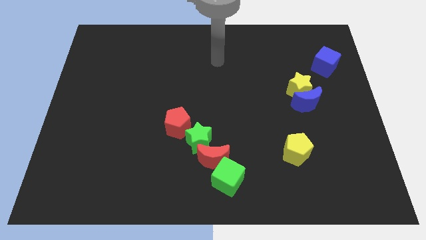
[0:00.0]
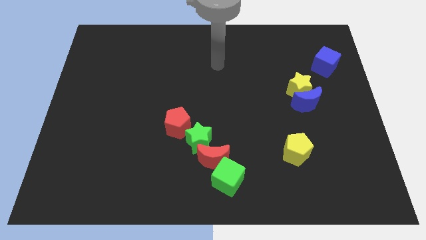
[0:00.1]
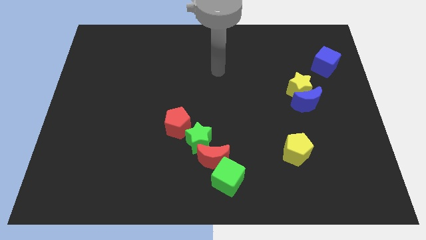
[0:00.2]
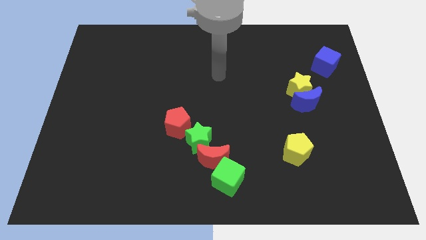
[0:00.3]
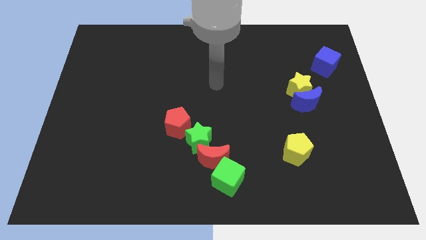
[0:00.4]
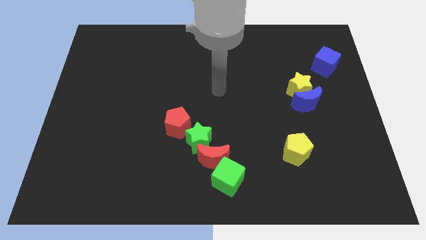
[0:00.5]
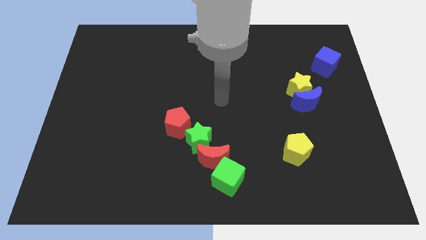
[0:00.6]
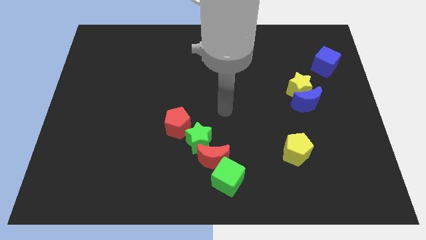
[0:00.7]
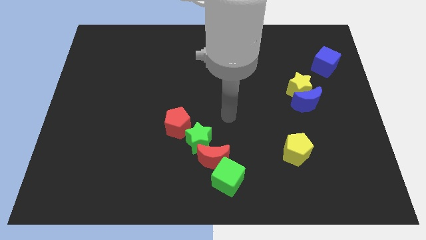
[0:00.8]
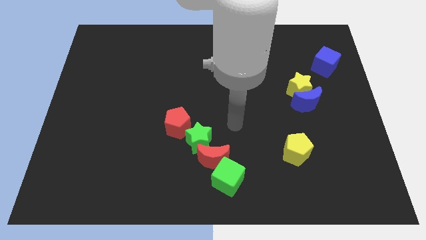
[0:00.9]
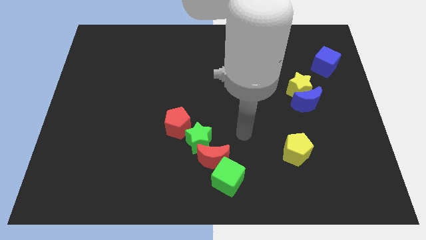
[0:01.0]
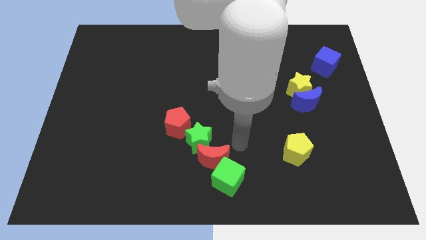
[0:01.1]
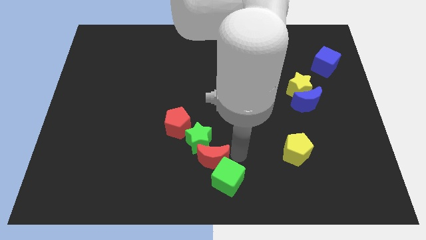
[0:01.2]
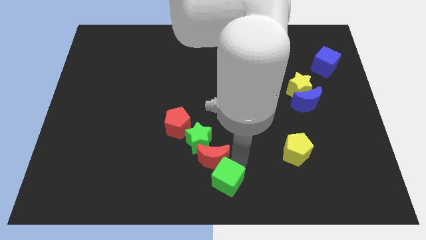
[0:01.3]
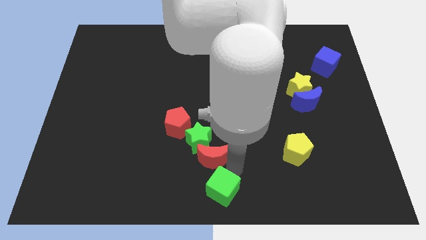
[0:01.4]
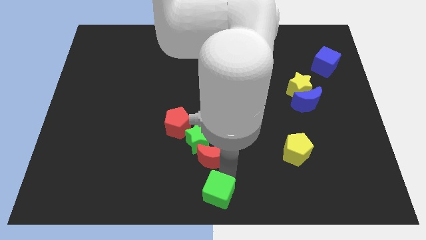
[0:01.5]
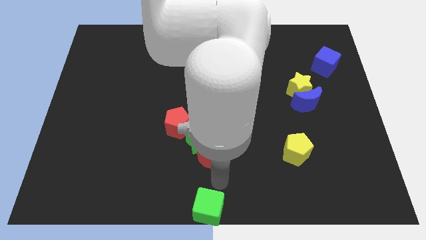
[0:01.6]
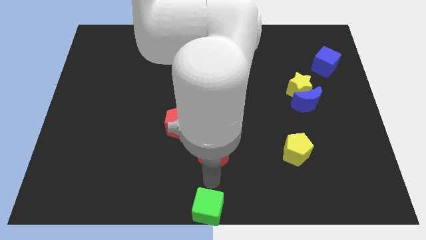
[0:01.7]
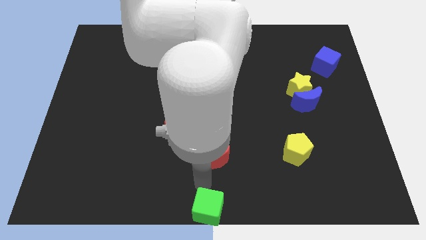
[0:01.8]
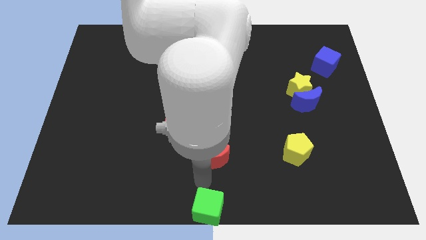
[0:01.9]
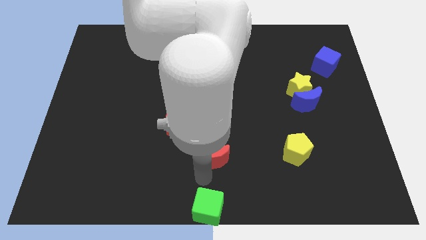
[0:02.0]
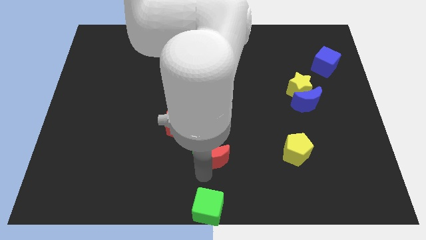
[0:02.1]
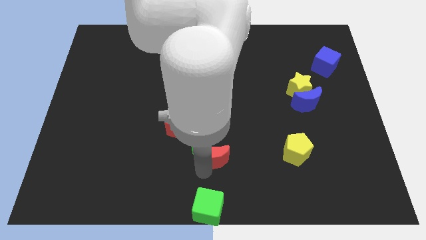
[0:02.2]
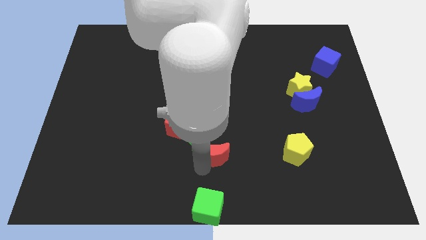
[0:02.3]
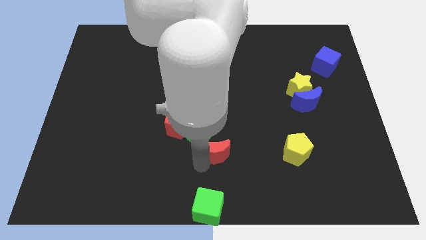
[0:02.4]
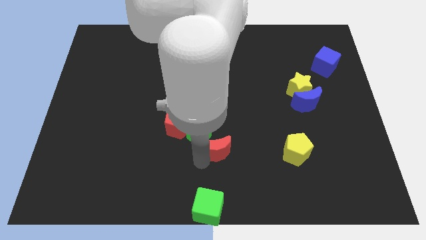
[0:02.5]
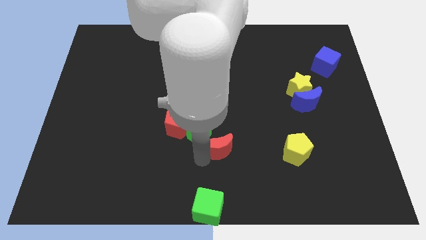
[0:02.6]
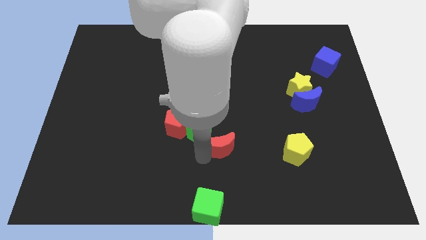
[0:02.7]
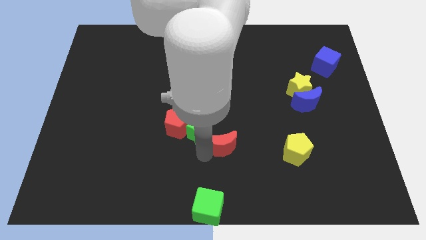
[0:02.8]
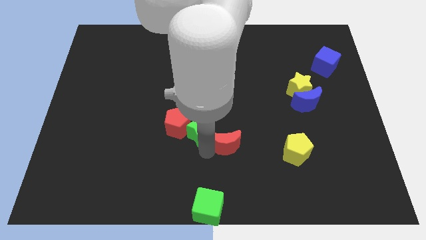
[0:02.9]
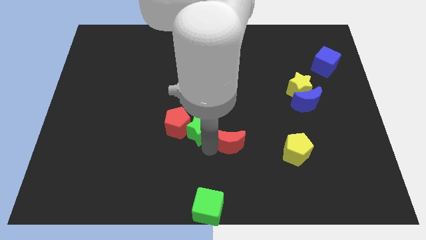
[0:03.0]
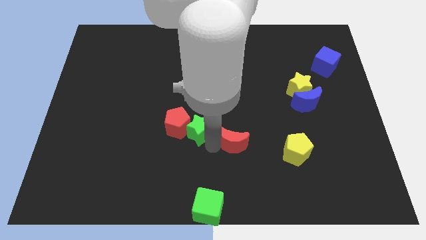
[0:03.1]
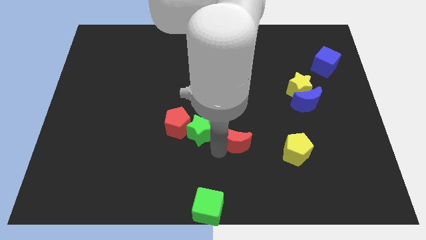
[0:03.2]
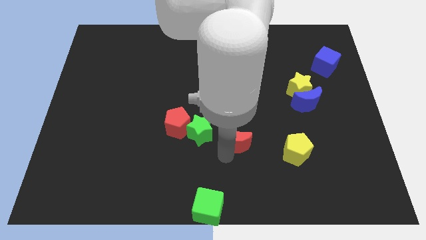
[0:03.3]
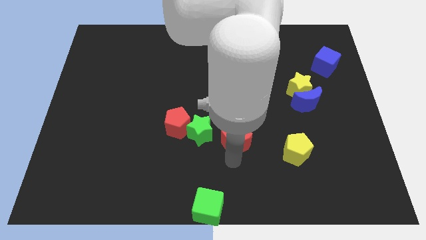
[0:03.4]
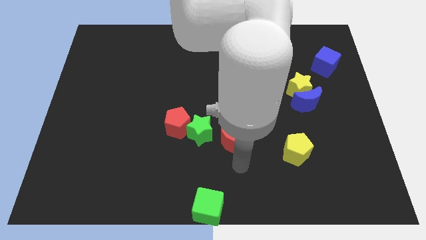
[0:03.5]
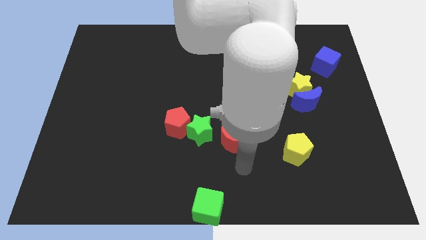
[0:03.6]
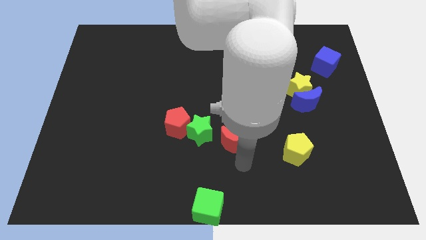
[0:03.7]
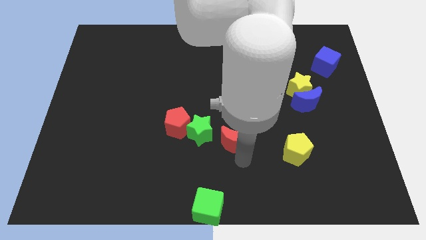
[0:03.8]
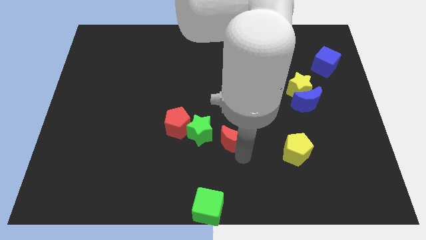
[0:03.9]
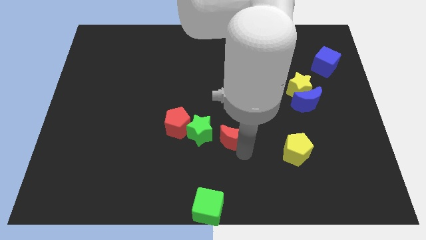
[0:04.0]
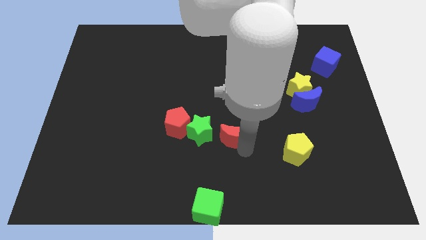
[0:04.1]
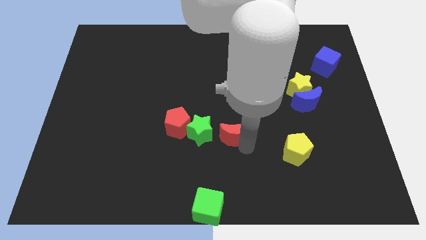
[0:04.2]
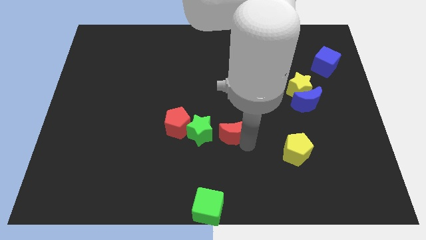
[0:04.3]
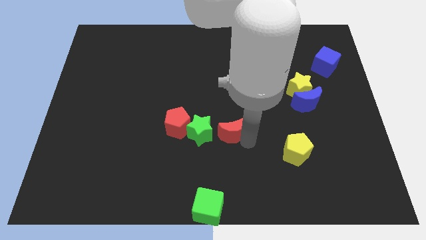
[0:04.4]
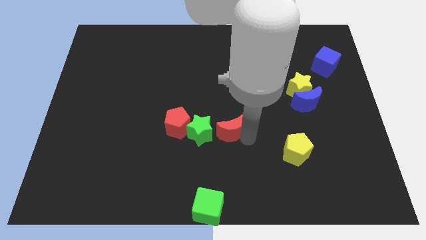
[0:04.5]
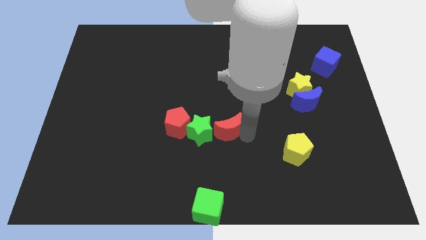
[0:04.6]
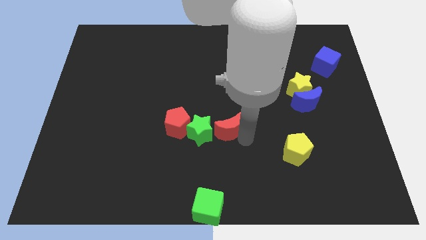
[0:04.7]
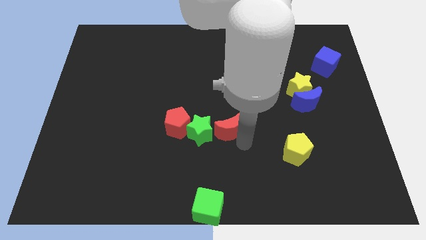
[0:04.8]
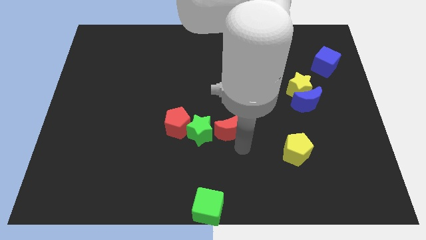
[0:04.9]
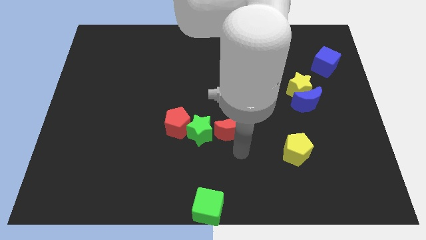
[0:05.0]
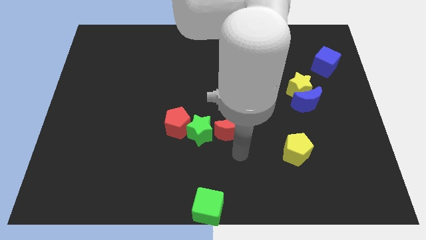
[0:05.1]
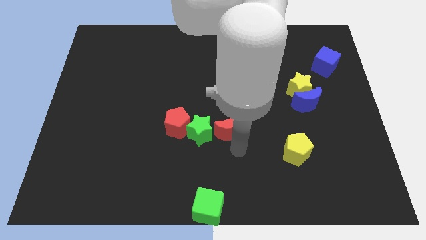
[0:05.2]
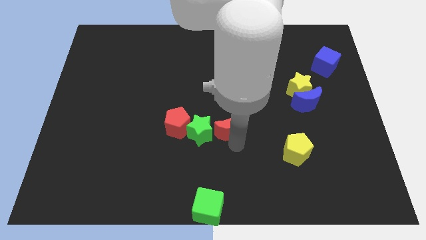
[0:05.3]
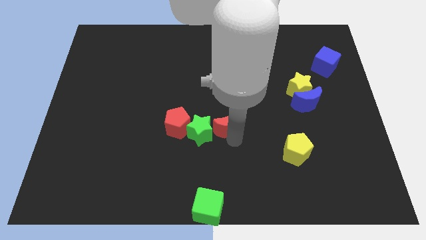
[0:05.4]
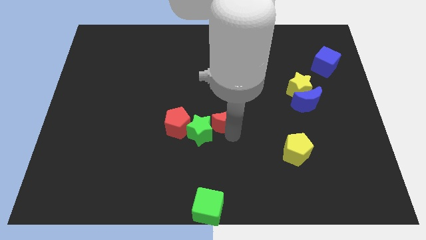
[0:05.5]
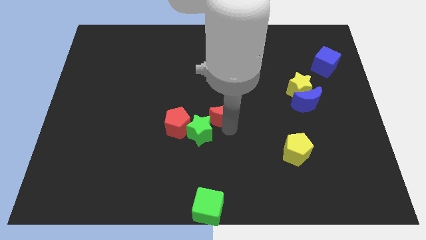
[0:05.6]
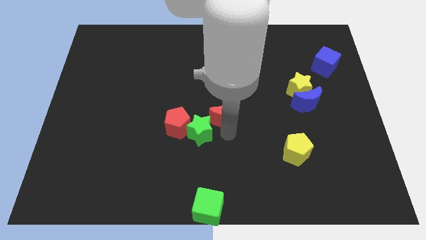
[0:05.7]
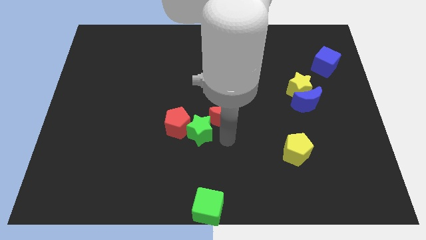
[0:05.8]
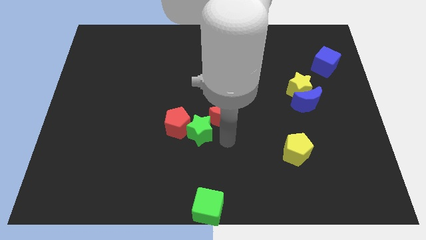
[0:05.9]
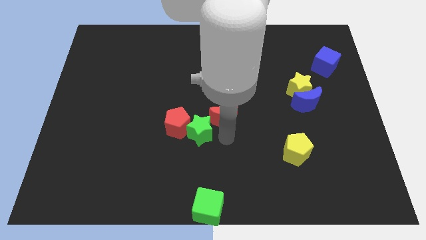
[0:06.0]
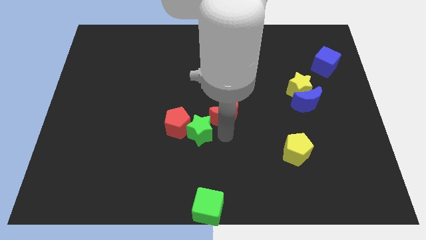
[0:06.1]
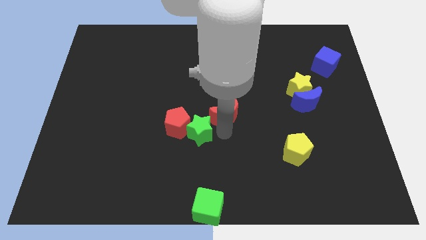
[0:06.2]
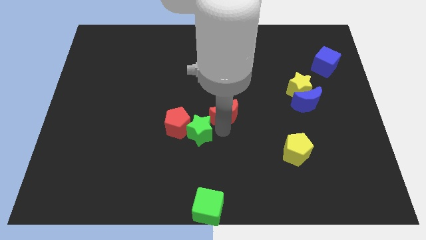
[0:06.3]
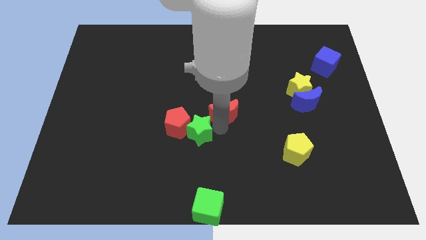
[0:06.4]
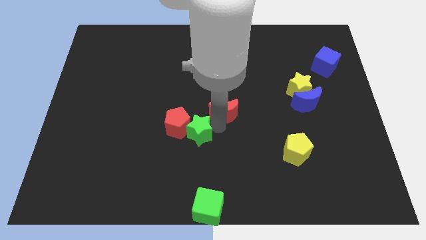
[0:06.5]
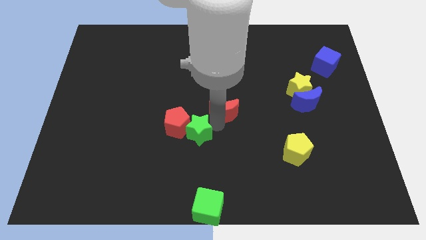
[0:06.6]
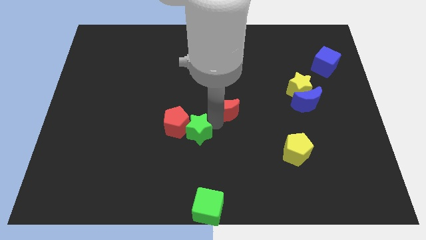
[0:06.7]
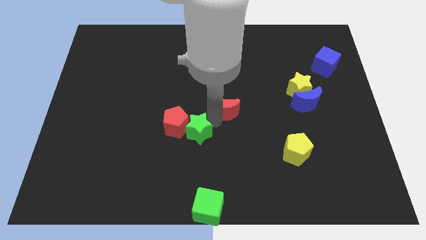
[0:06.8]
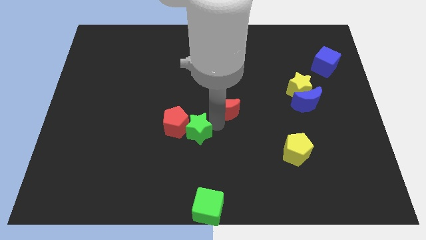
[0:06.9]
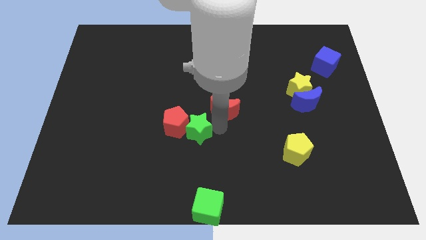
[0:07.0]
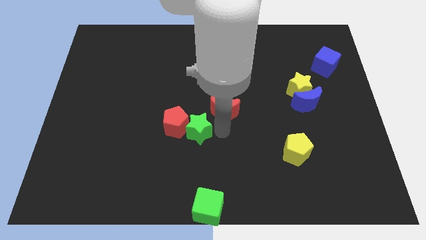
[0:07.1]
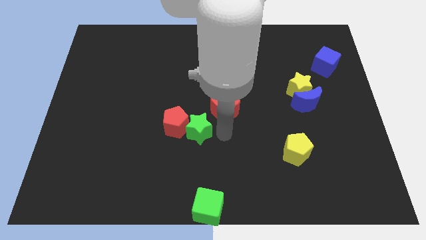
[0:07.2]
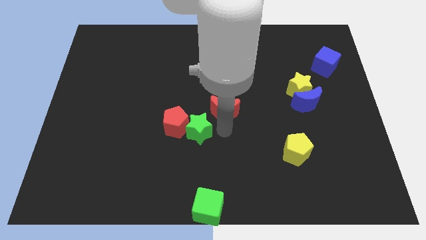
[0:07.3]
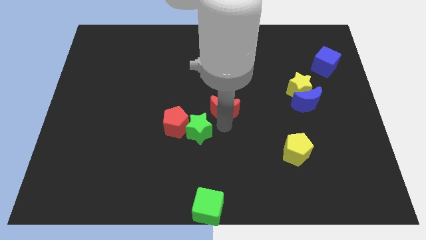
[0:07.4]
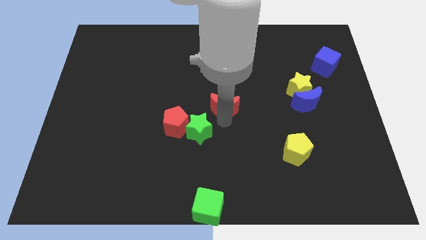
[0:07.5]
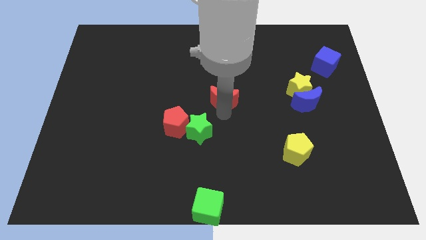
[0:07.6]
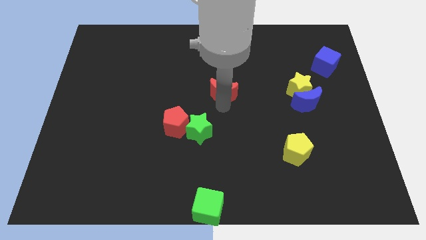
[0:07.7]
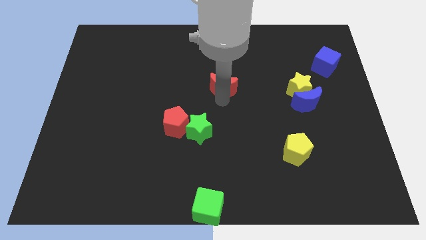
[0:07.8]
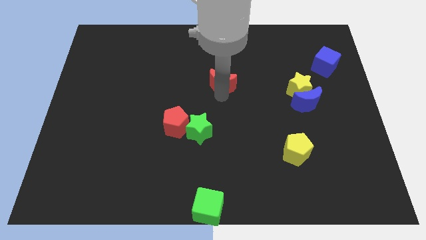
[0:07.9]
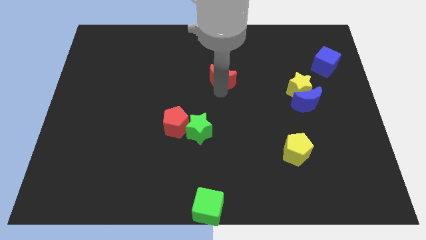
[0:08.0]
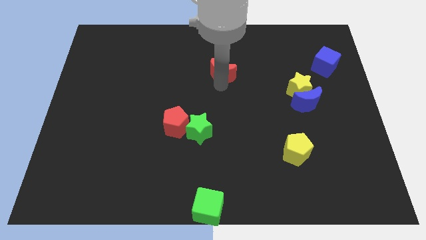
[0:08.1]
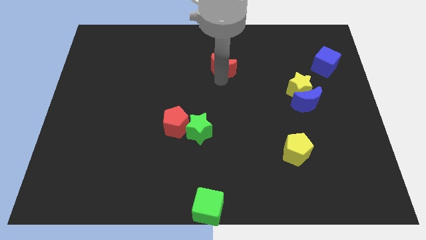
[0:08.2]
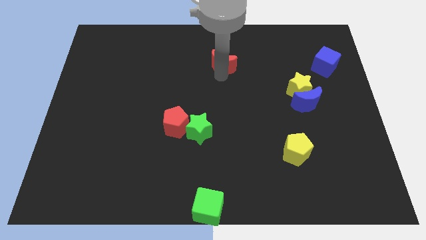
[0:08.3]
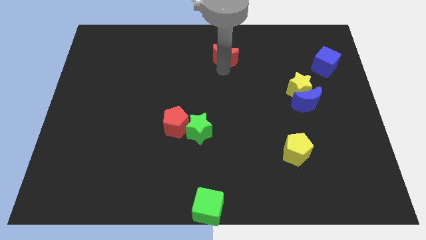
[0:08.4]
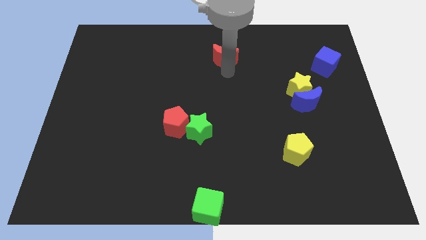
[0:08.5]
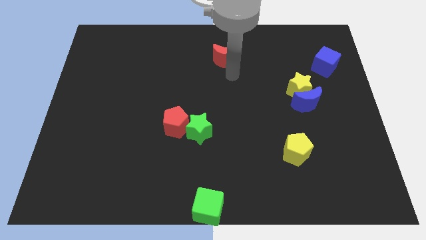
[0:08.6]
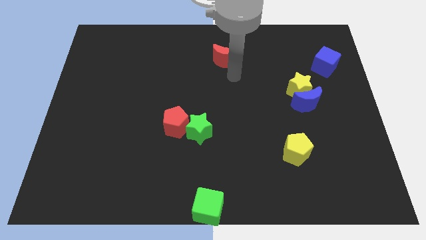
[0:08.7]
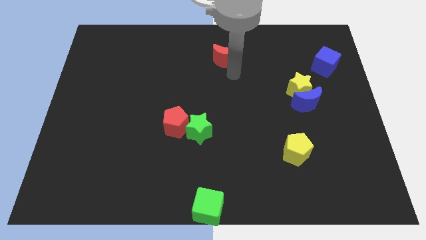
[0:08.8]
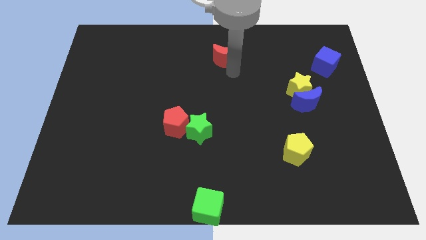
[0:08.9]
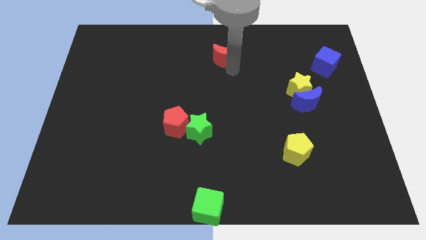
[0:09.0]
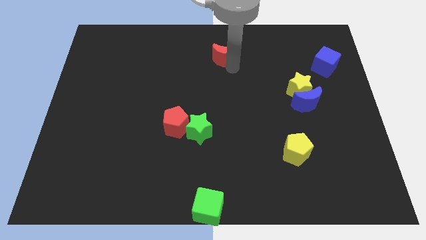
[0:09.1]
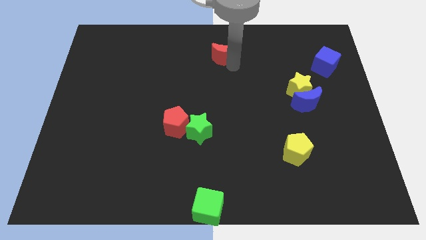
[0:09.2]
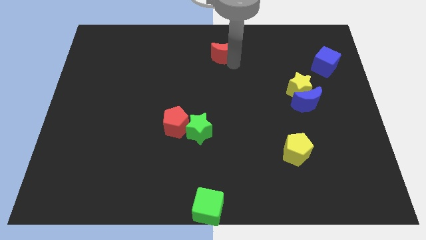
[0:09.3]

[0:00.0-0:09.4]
slide the red moon to the top side
